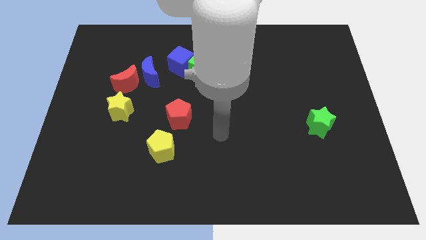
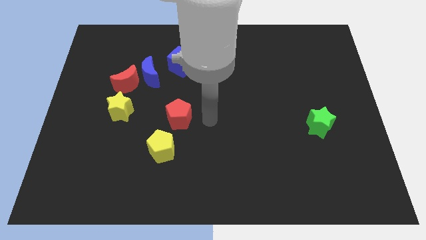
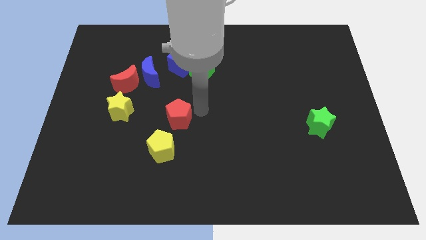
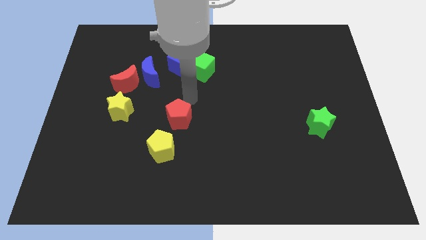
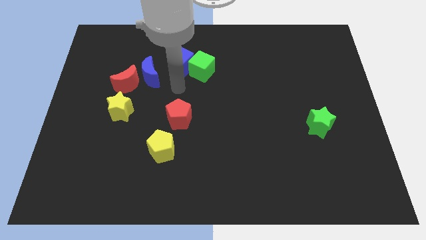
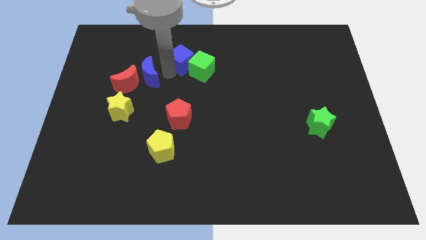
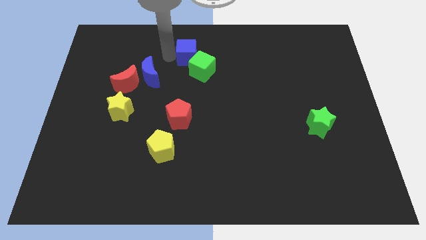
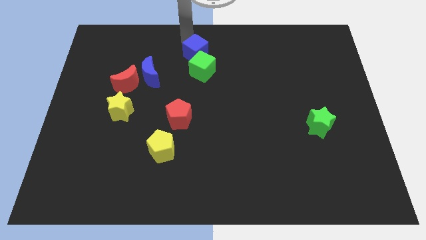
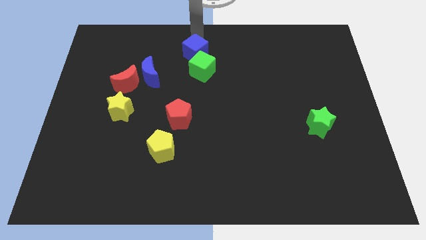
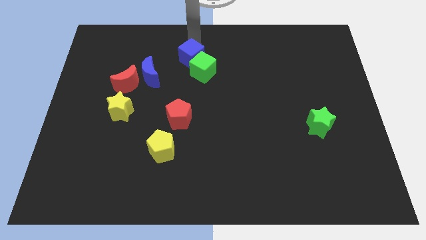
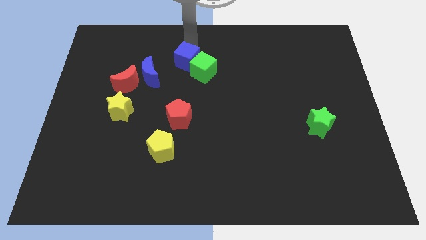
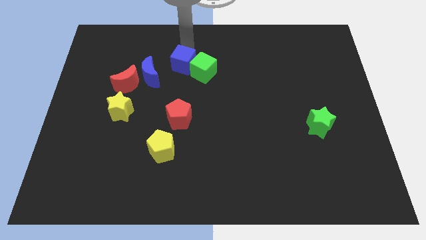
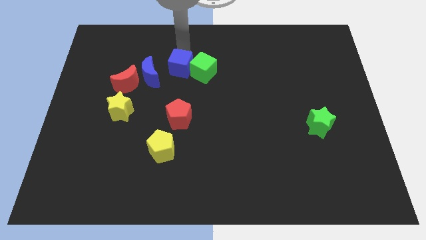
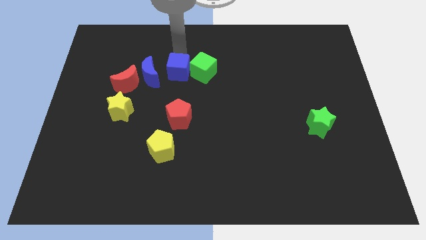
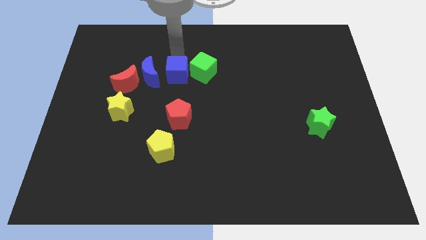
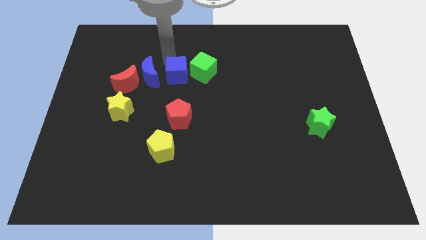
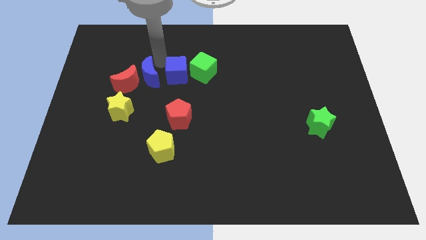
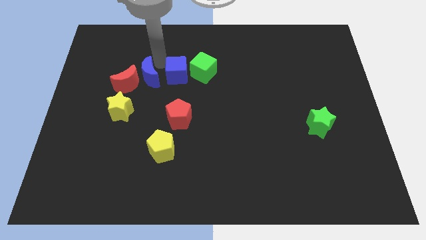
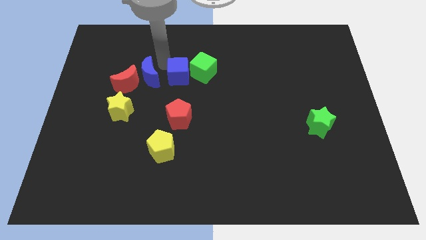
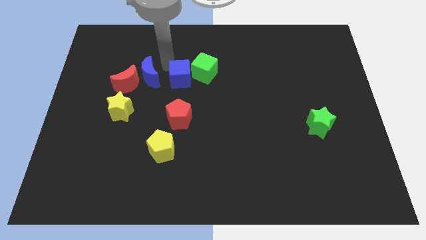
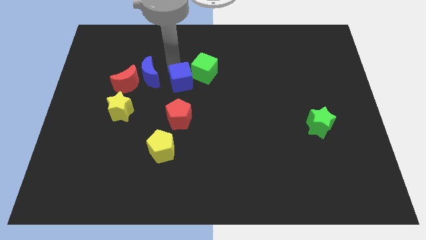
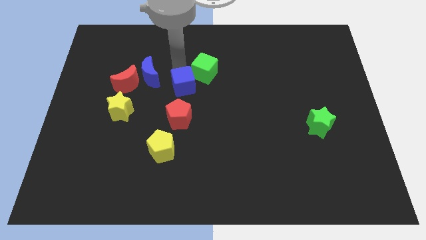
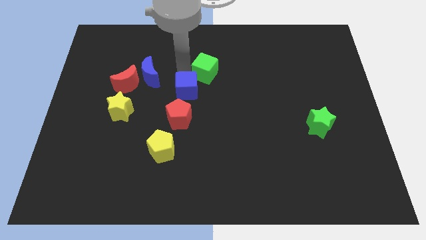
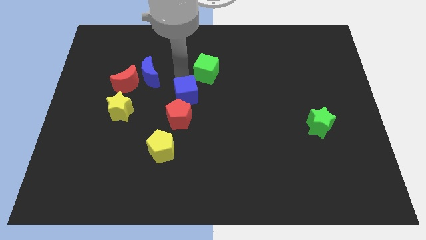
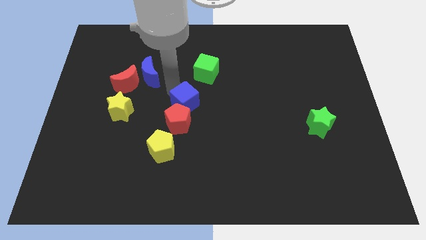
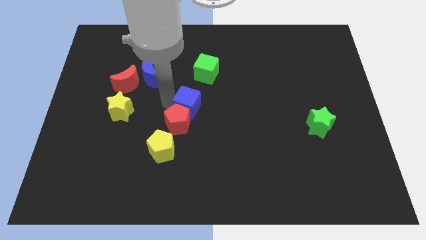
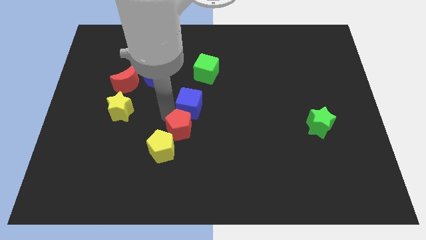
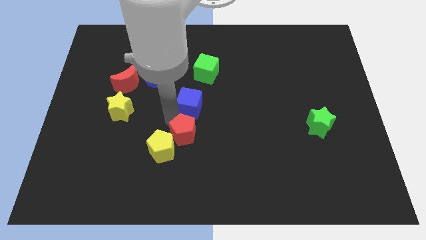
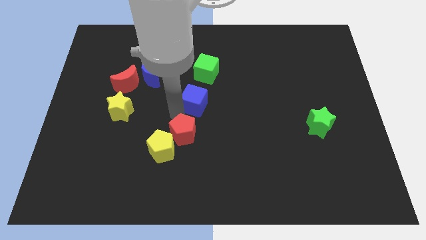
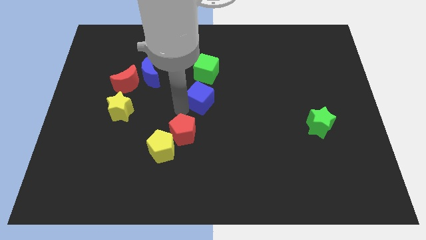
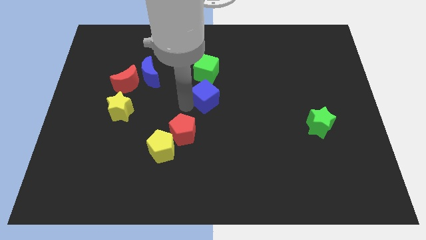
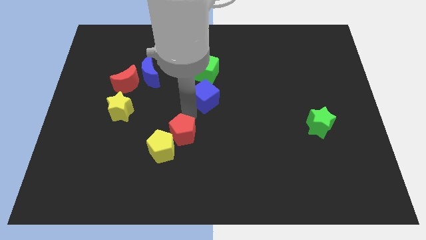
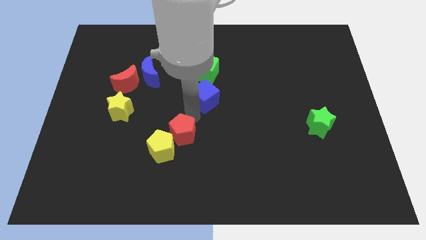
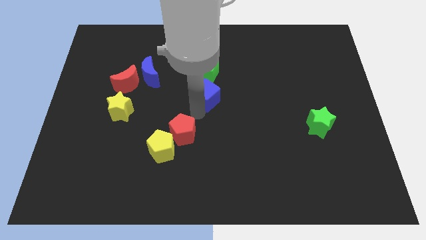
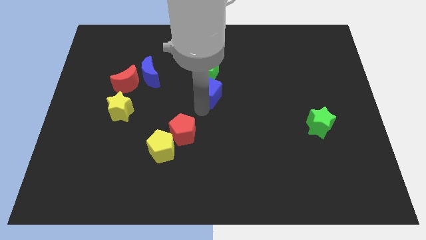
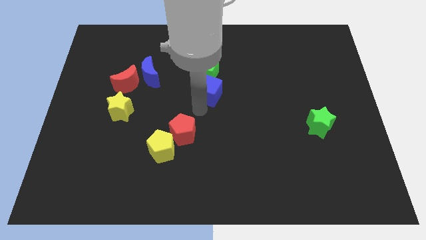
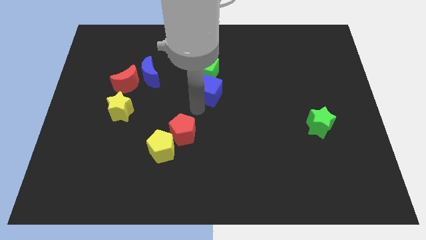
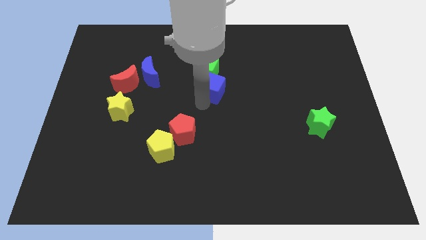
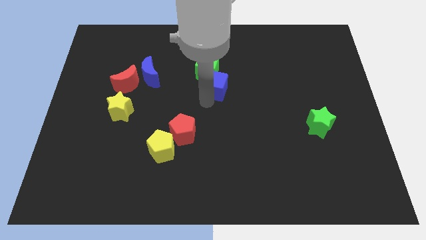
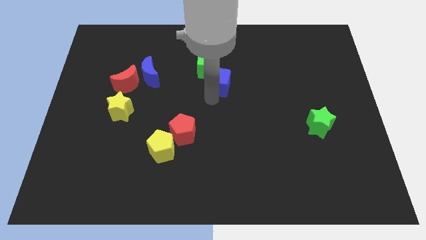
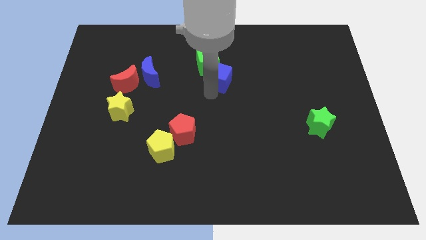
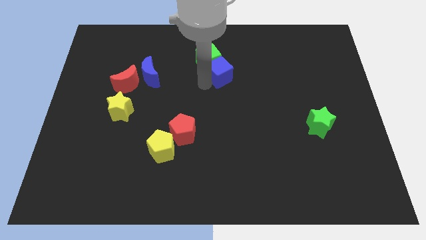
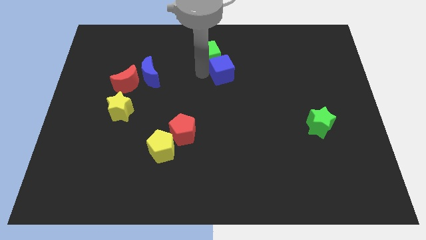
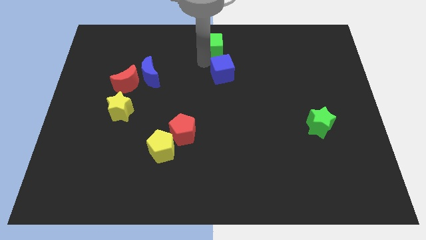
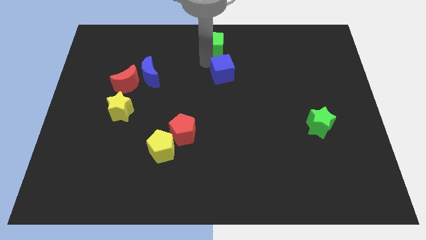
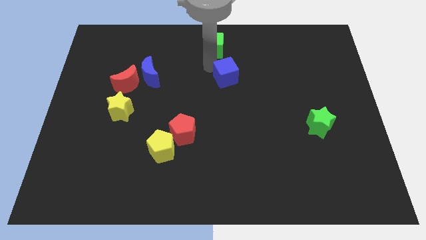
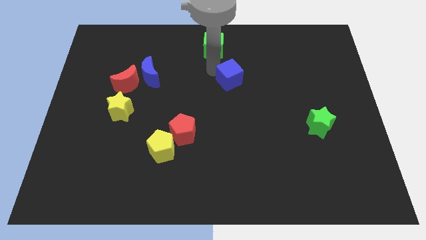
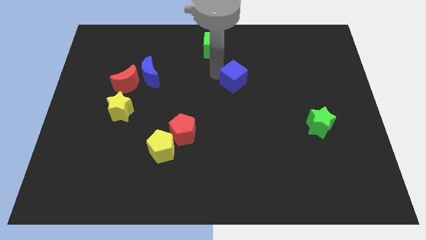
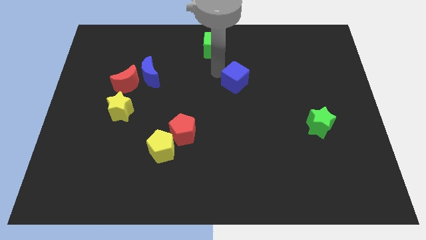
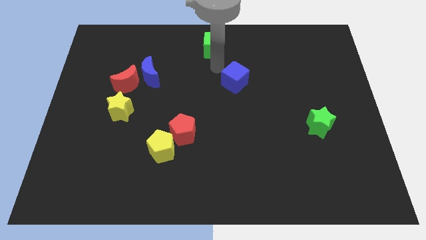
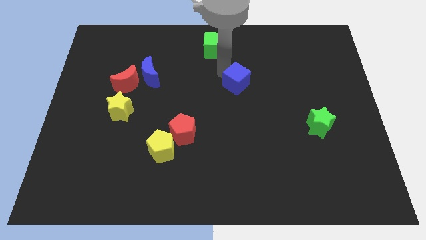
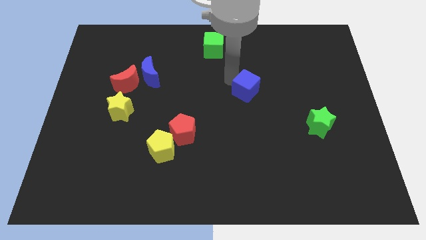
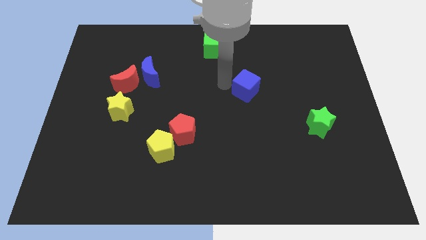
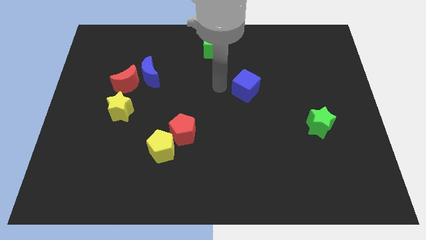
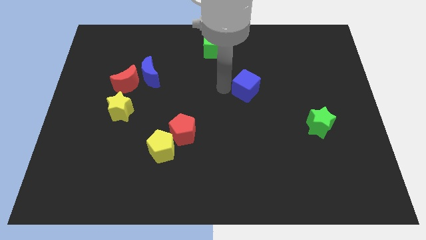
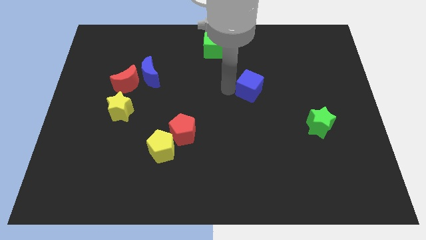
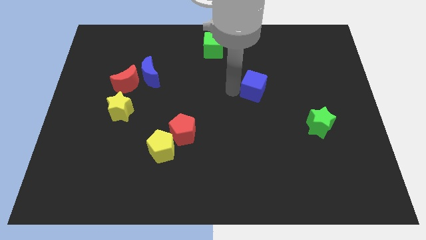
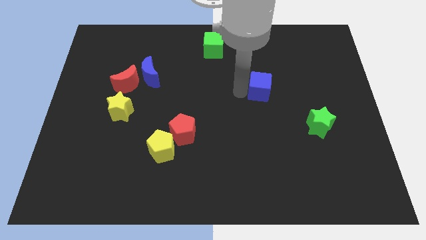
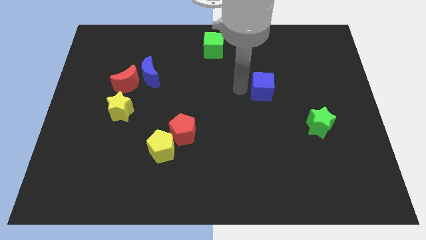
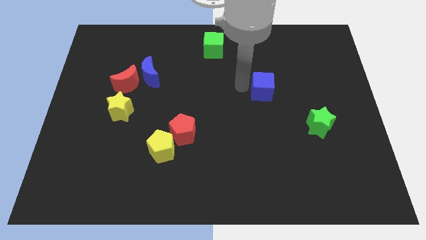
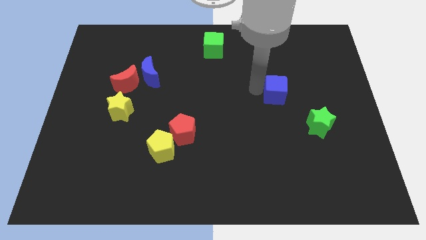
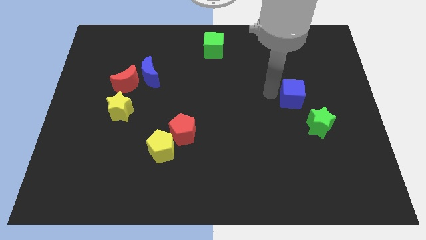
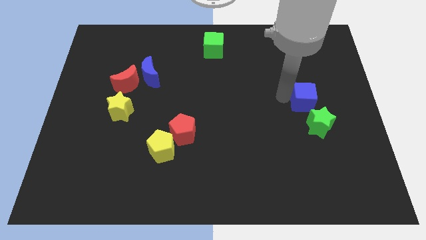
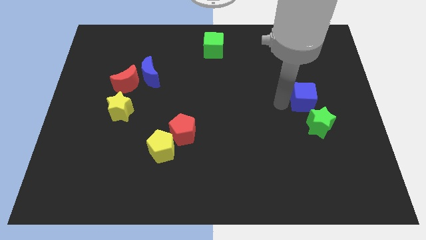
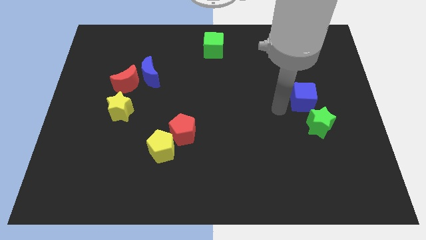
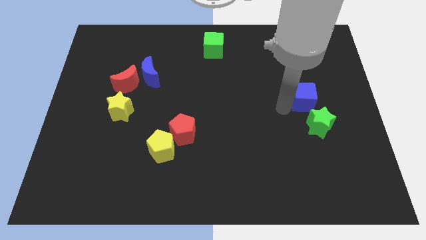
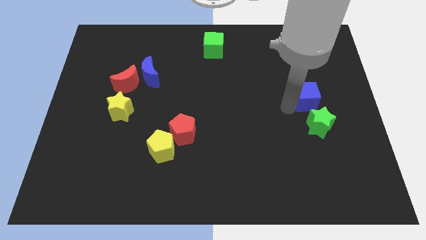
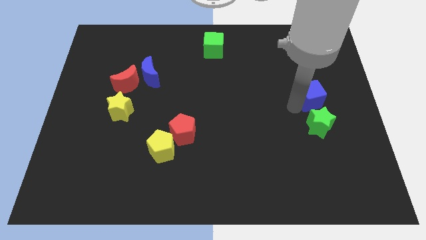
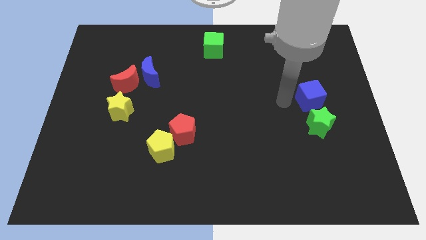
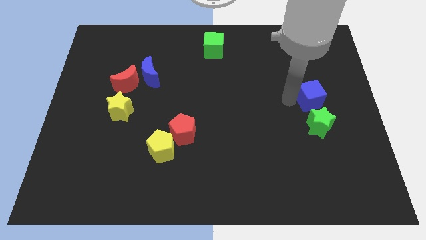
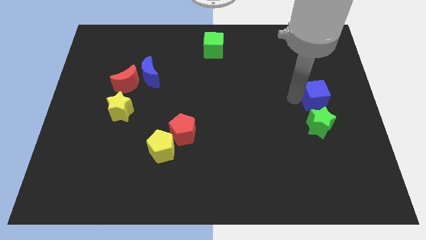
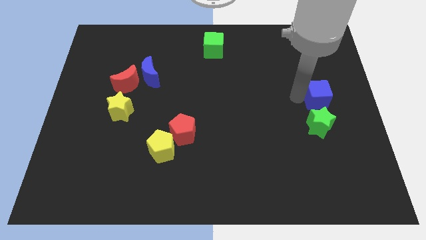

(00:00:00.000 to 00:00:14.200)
slide the blue cube to the center right
